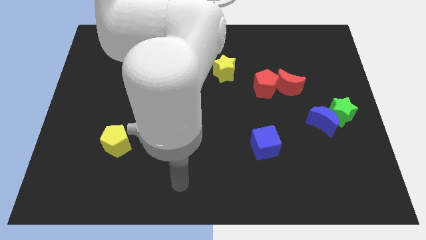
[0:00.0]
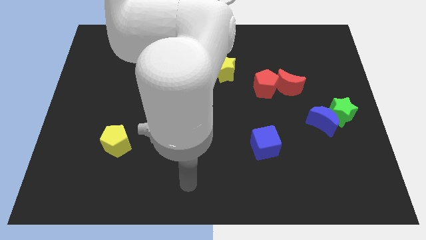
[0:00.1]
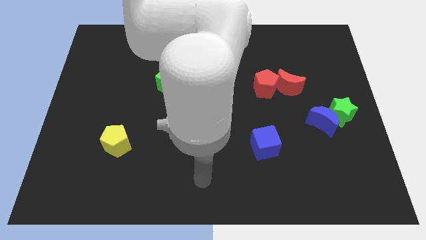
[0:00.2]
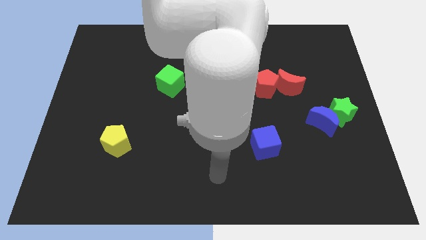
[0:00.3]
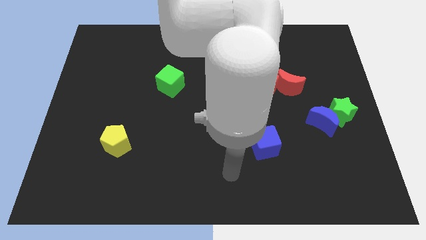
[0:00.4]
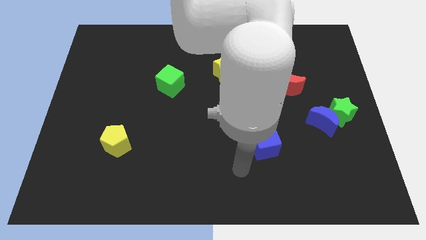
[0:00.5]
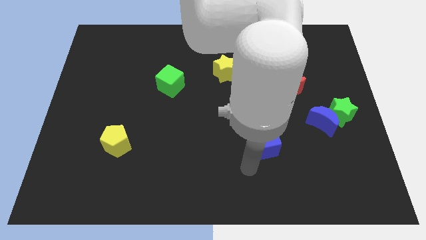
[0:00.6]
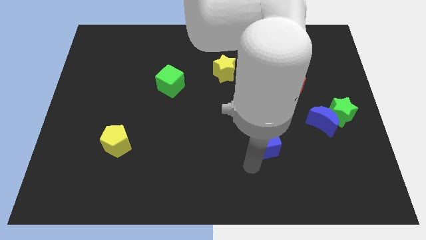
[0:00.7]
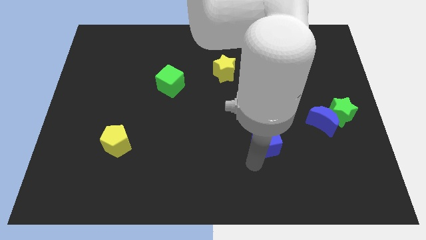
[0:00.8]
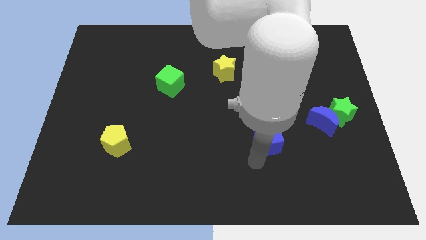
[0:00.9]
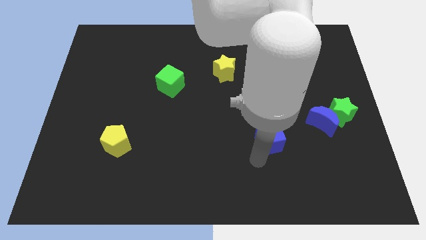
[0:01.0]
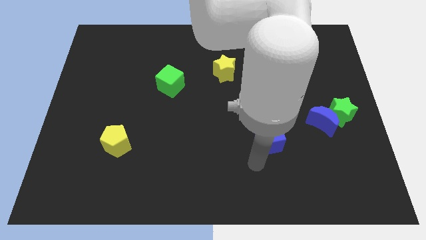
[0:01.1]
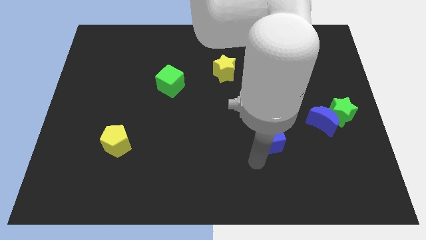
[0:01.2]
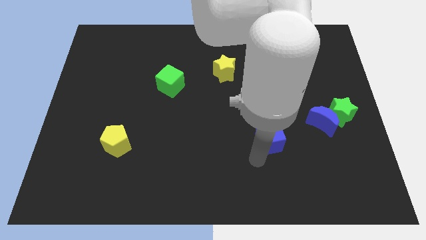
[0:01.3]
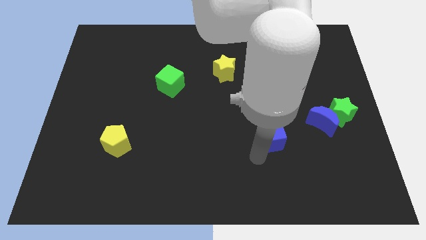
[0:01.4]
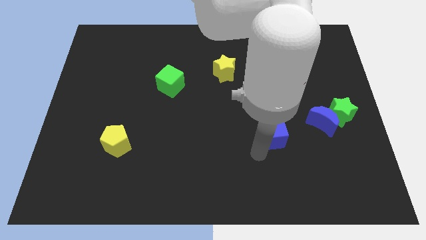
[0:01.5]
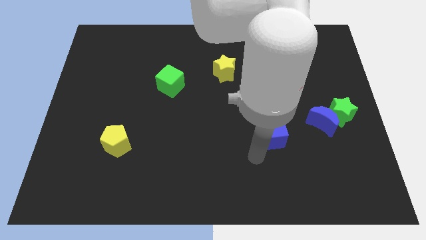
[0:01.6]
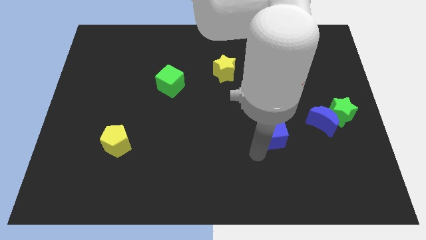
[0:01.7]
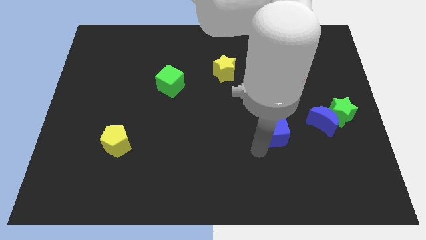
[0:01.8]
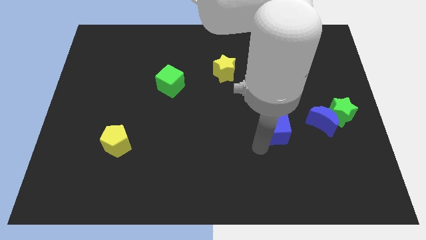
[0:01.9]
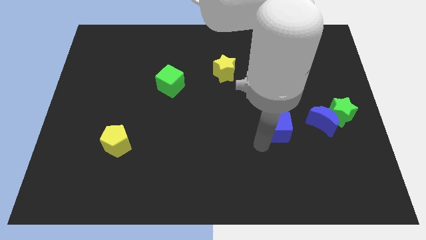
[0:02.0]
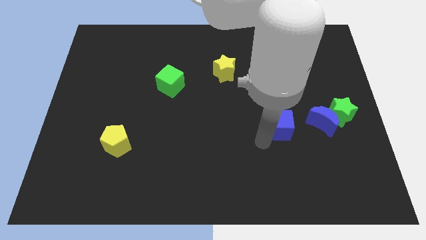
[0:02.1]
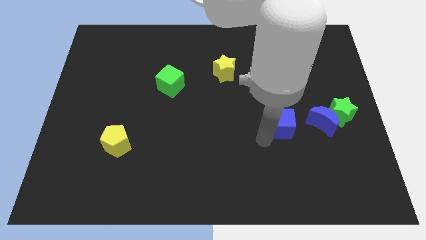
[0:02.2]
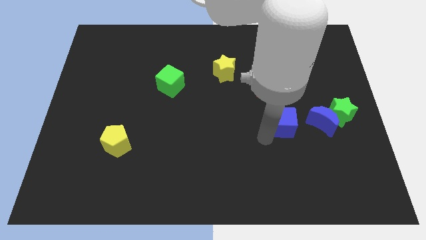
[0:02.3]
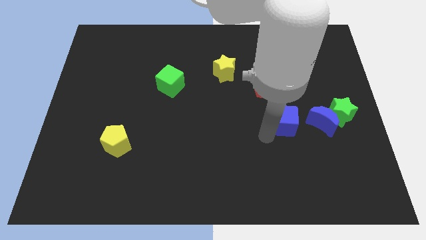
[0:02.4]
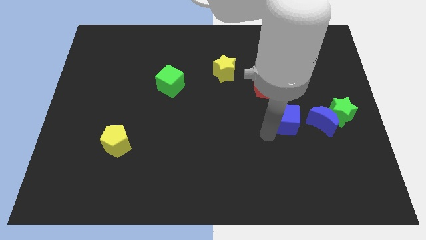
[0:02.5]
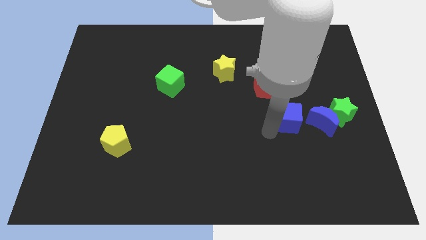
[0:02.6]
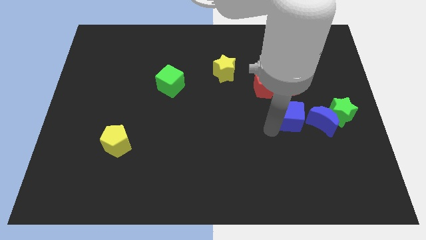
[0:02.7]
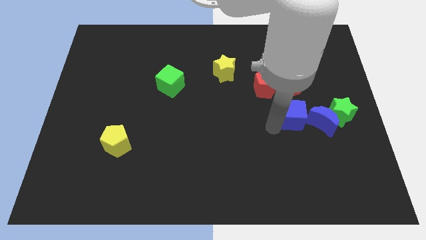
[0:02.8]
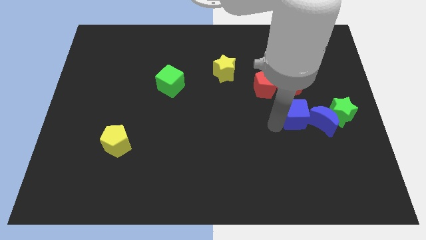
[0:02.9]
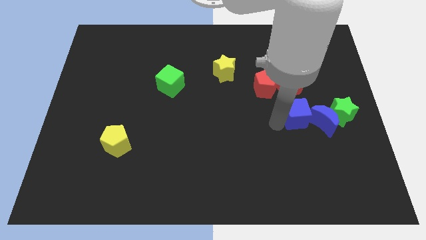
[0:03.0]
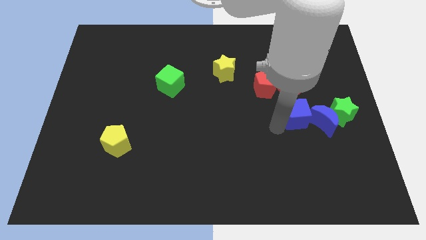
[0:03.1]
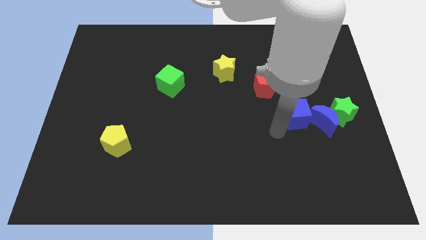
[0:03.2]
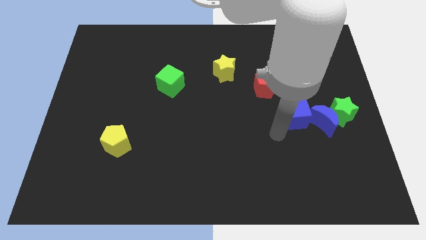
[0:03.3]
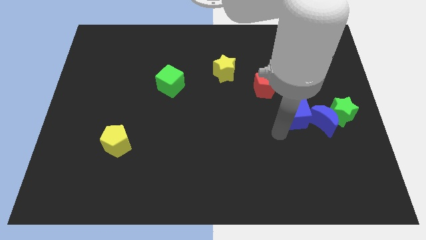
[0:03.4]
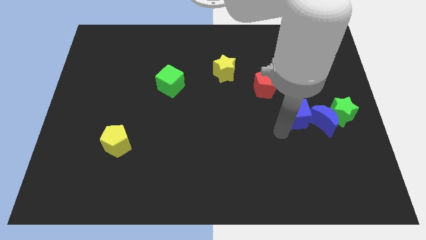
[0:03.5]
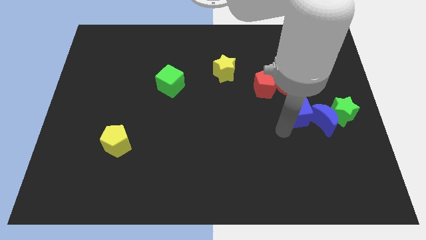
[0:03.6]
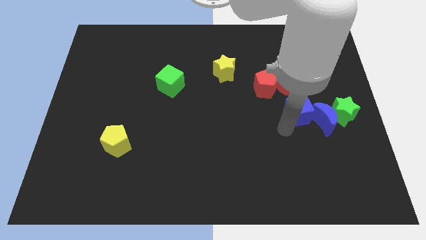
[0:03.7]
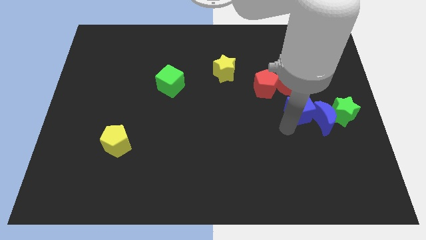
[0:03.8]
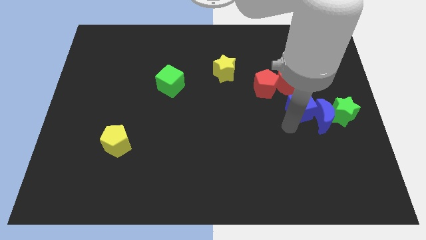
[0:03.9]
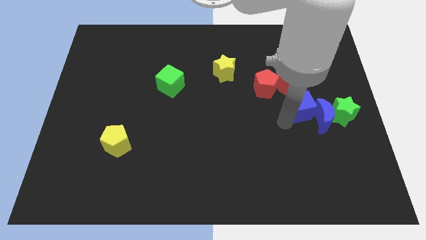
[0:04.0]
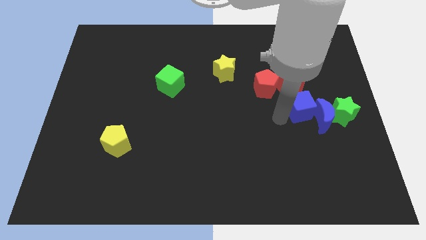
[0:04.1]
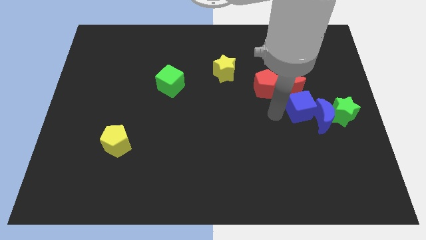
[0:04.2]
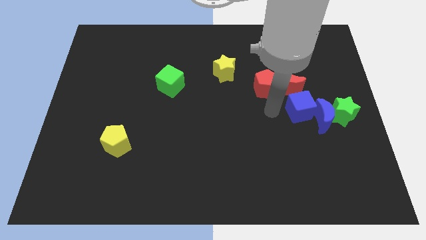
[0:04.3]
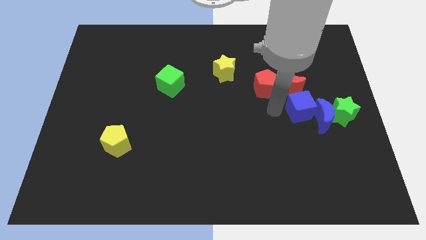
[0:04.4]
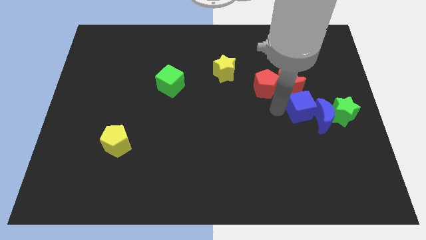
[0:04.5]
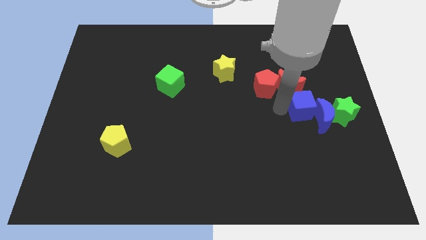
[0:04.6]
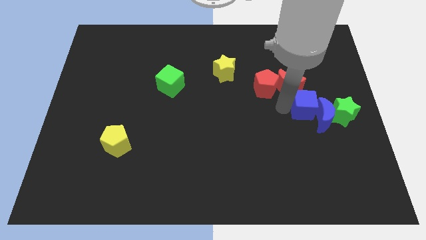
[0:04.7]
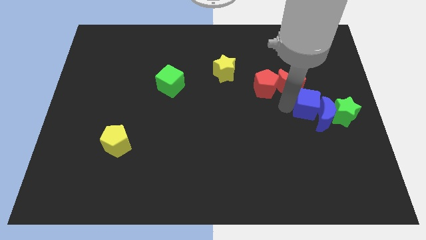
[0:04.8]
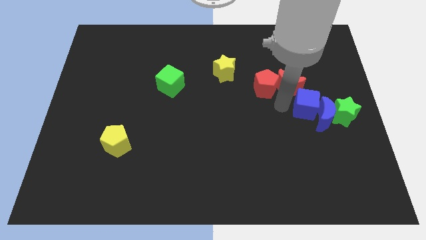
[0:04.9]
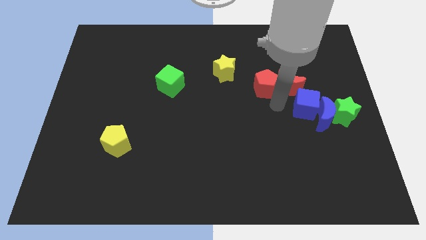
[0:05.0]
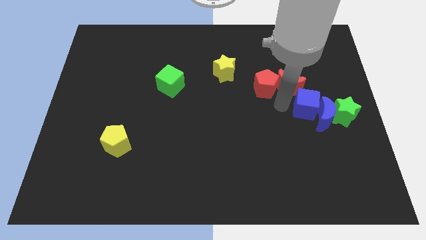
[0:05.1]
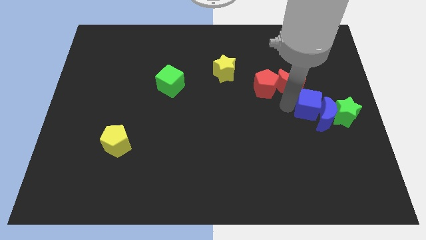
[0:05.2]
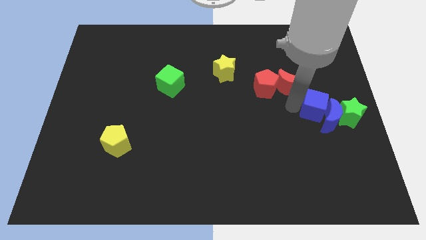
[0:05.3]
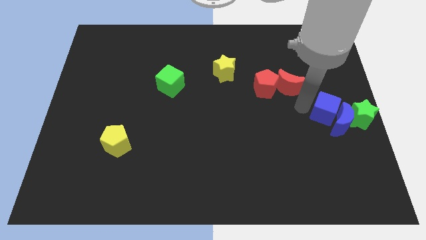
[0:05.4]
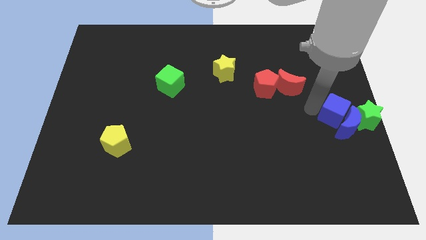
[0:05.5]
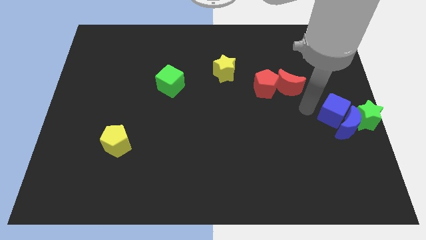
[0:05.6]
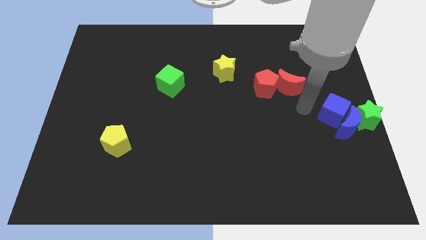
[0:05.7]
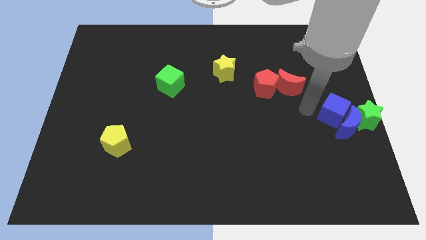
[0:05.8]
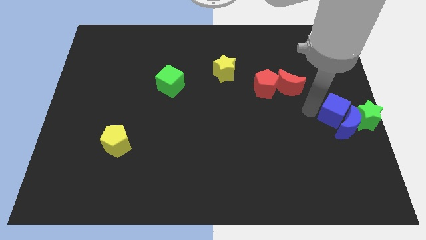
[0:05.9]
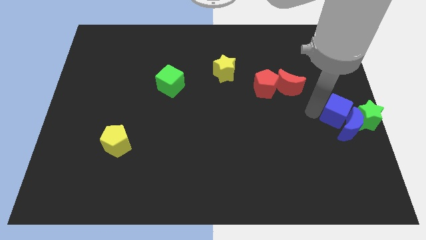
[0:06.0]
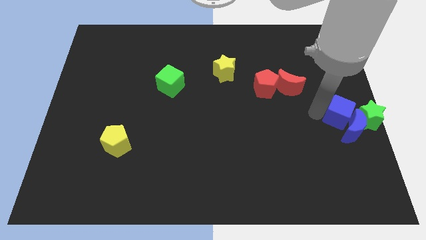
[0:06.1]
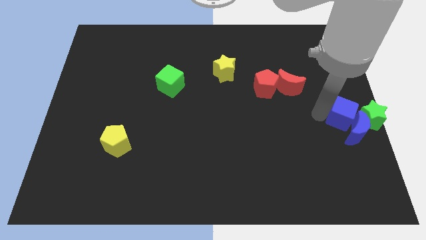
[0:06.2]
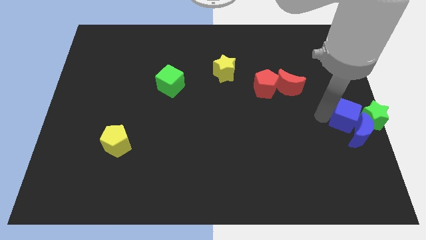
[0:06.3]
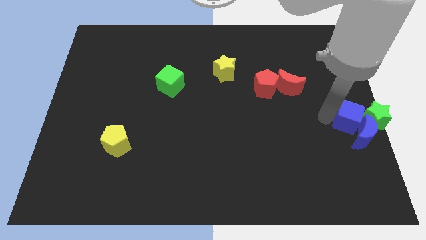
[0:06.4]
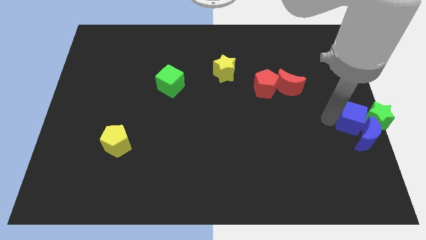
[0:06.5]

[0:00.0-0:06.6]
put the blue cube close to the green star

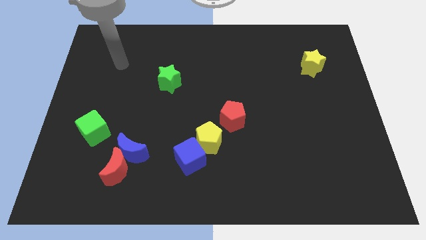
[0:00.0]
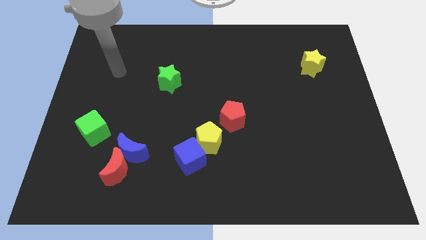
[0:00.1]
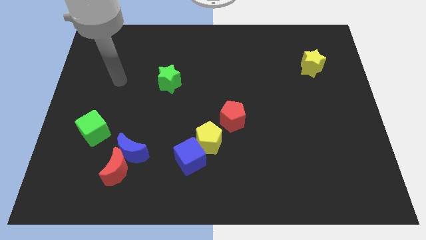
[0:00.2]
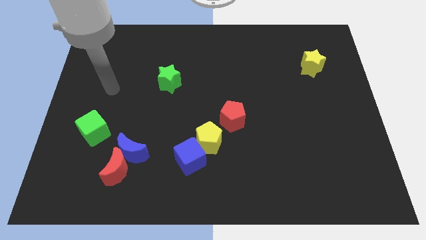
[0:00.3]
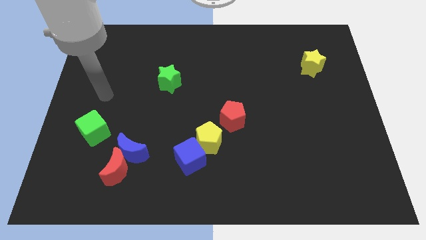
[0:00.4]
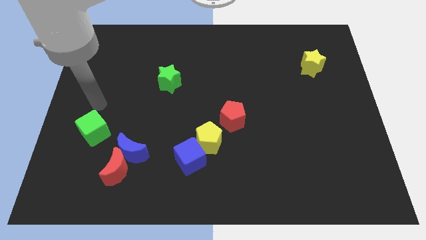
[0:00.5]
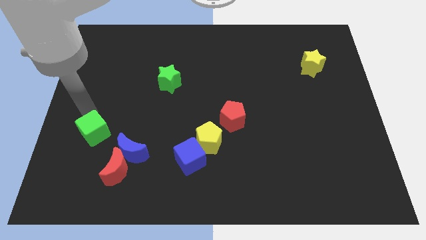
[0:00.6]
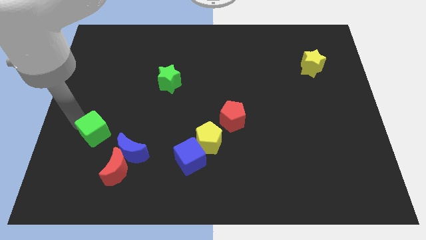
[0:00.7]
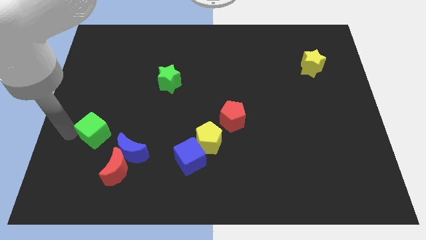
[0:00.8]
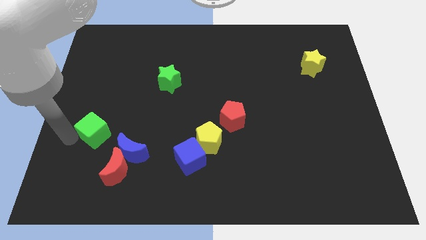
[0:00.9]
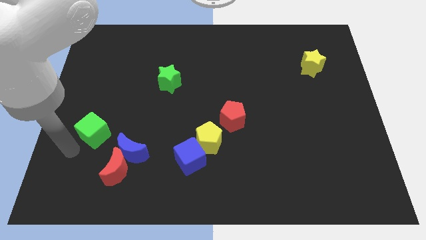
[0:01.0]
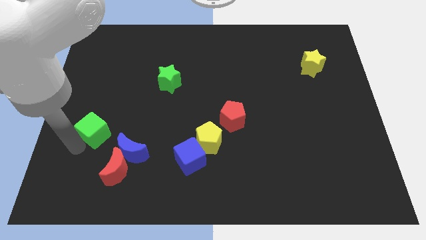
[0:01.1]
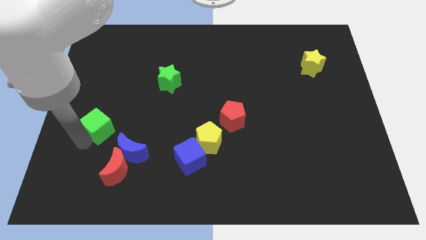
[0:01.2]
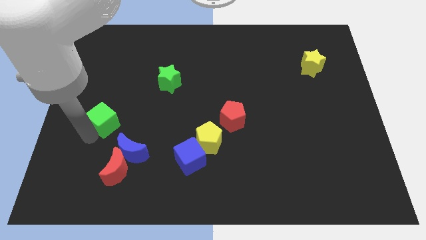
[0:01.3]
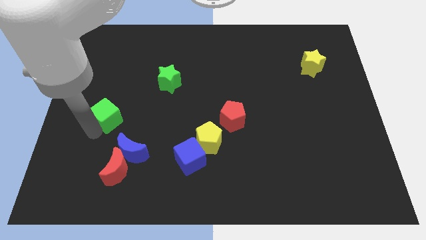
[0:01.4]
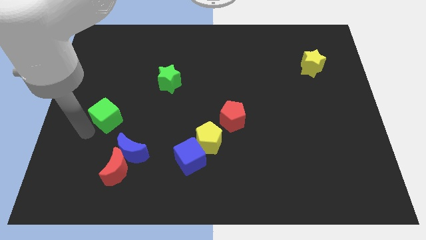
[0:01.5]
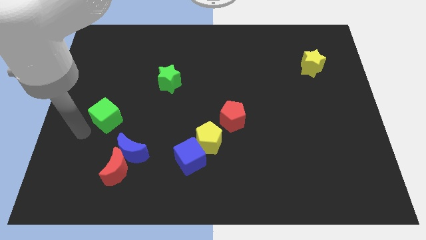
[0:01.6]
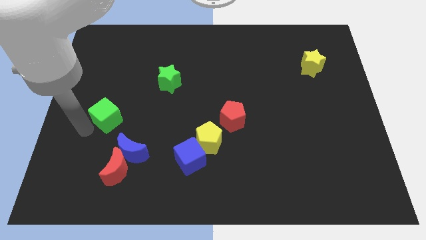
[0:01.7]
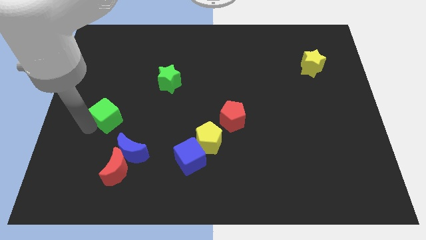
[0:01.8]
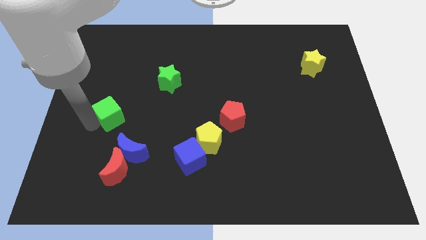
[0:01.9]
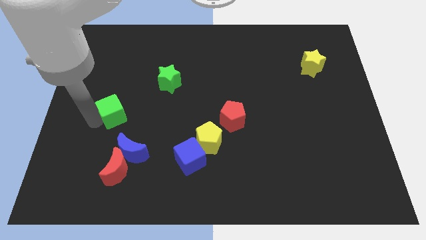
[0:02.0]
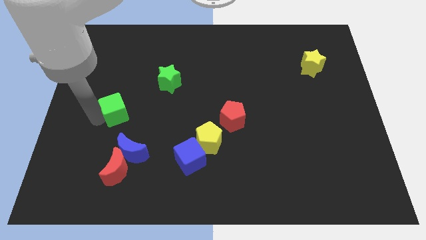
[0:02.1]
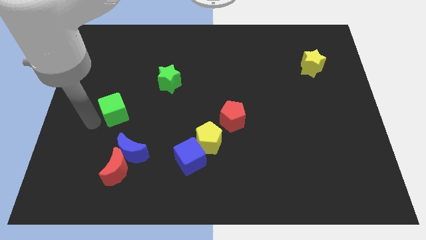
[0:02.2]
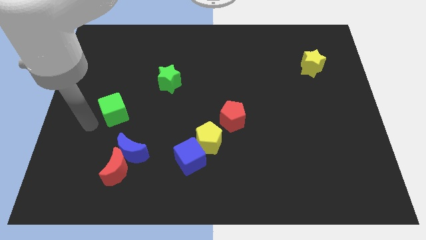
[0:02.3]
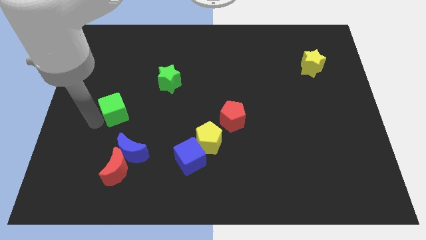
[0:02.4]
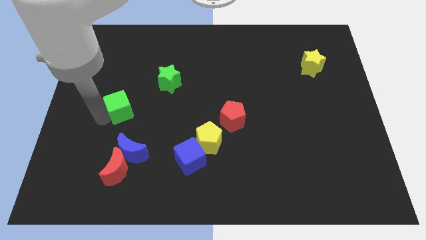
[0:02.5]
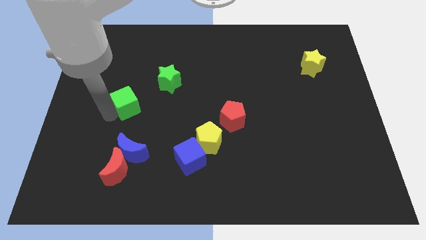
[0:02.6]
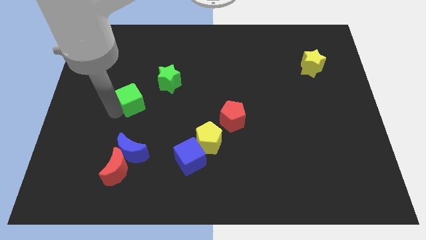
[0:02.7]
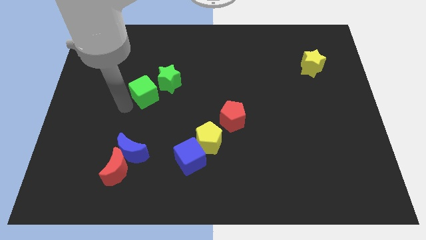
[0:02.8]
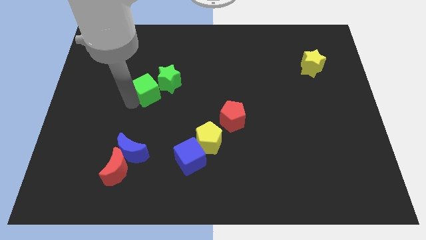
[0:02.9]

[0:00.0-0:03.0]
put the green cube to the green star
